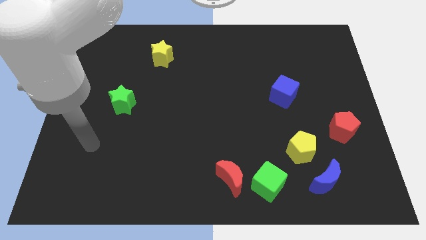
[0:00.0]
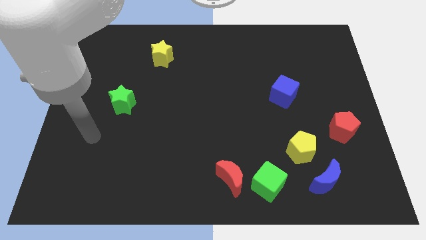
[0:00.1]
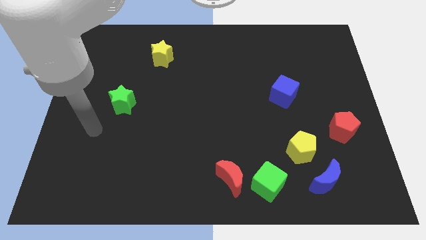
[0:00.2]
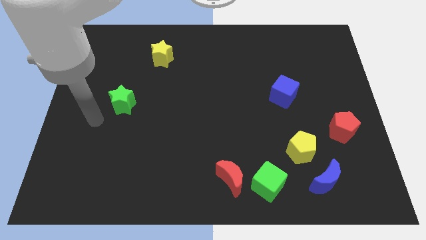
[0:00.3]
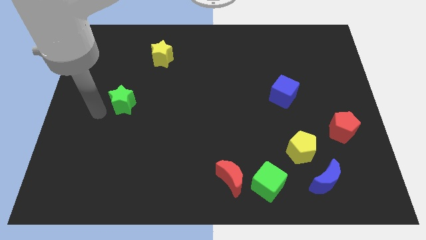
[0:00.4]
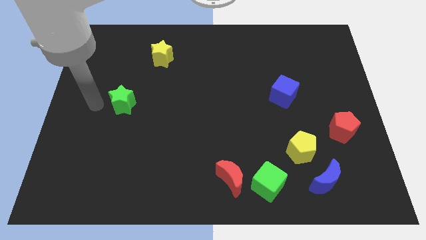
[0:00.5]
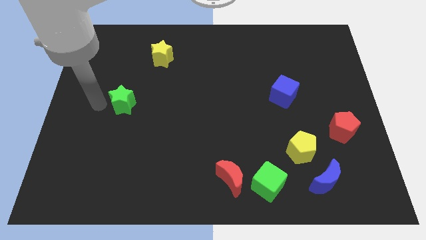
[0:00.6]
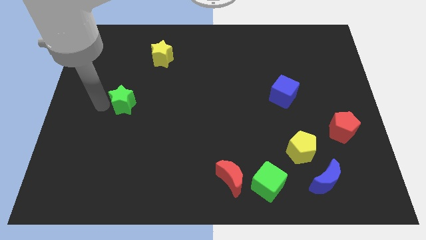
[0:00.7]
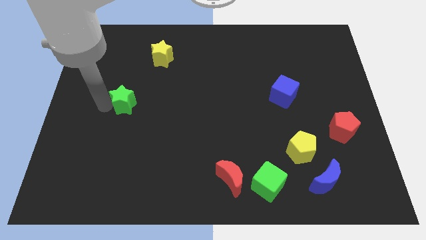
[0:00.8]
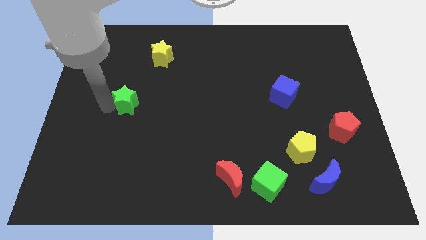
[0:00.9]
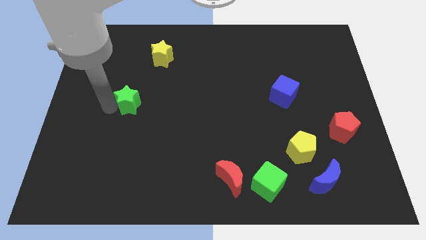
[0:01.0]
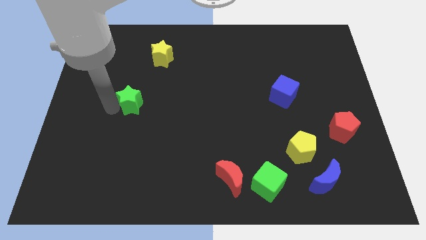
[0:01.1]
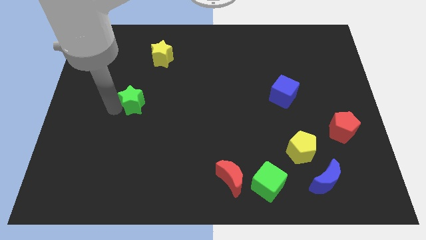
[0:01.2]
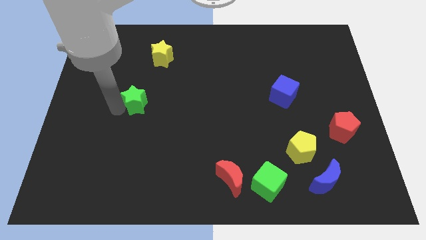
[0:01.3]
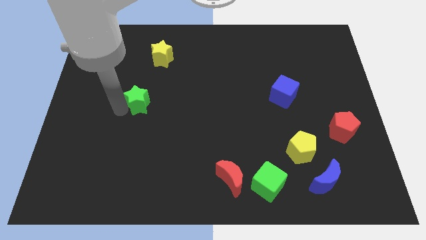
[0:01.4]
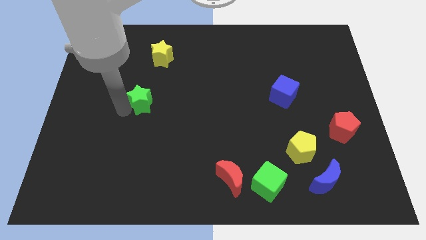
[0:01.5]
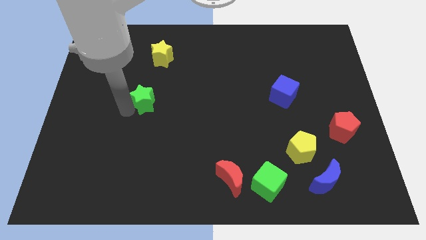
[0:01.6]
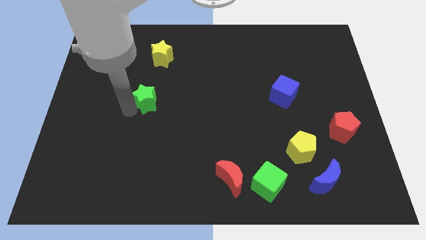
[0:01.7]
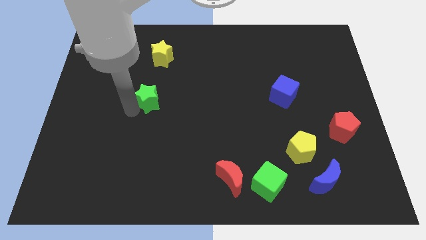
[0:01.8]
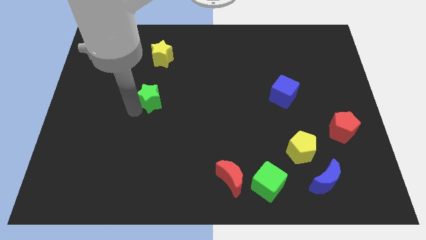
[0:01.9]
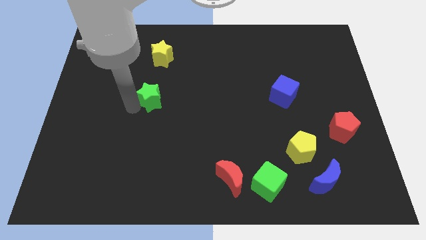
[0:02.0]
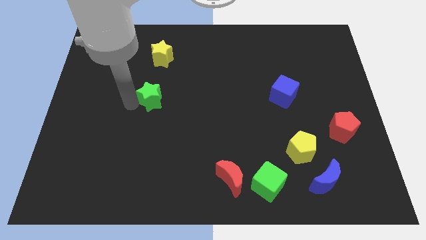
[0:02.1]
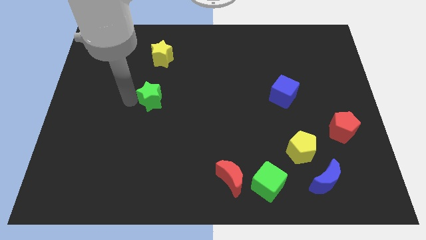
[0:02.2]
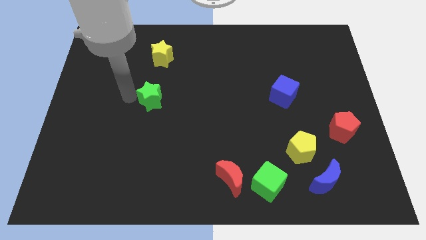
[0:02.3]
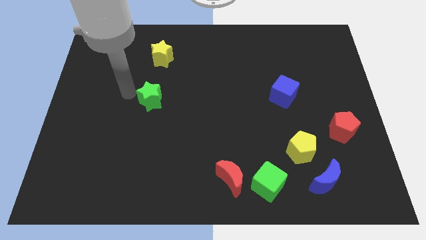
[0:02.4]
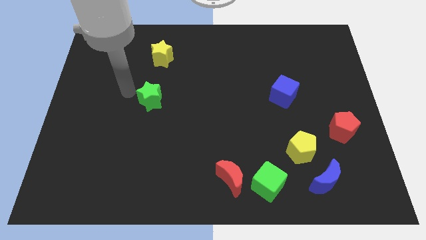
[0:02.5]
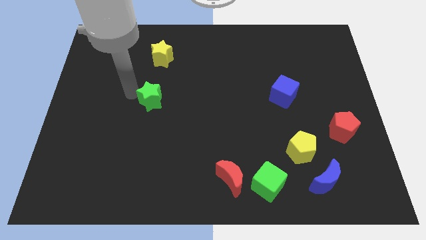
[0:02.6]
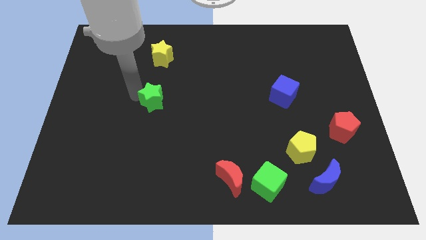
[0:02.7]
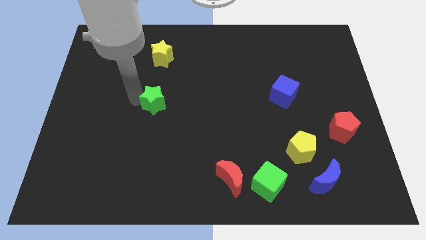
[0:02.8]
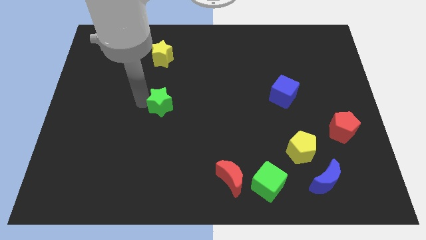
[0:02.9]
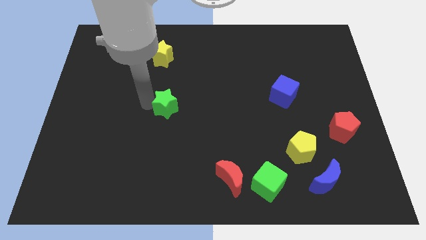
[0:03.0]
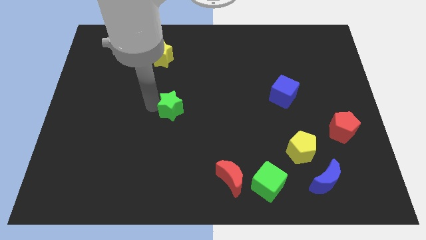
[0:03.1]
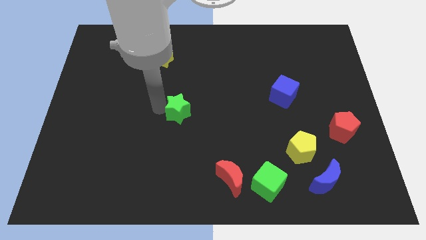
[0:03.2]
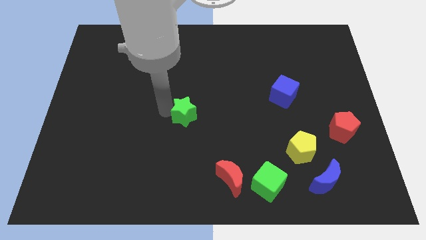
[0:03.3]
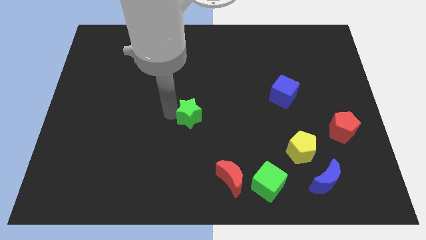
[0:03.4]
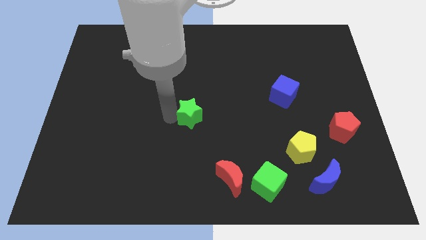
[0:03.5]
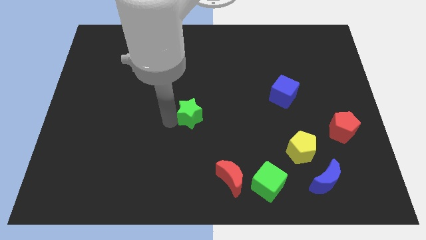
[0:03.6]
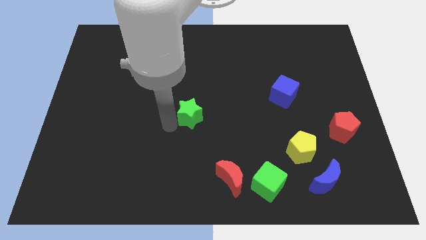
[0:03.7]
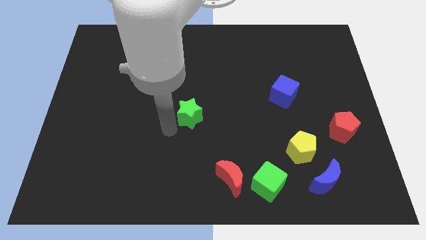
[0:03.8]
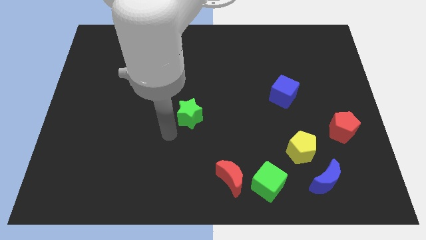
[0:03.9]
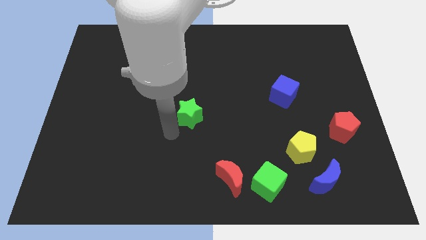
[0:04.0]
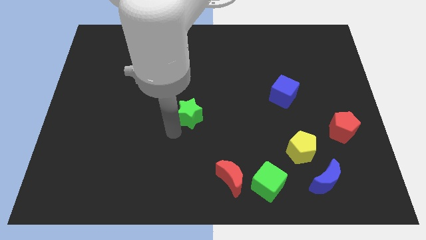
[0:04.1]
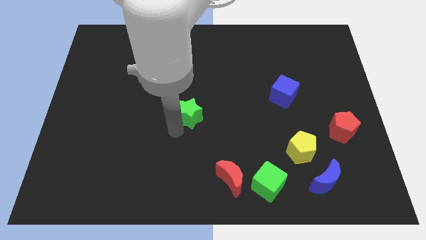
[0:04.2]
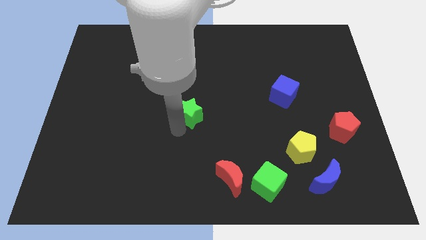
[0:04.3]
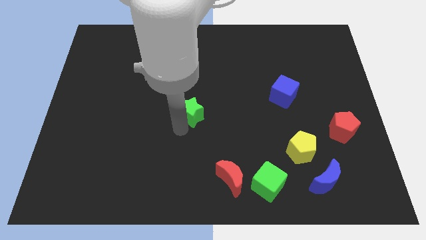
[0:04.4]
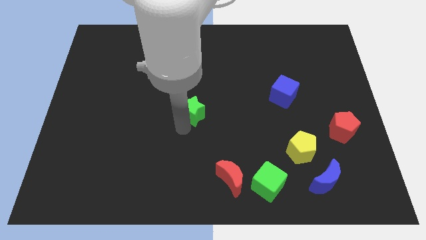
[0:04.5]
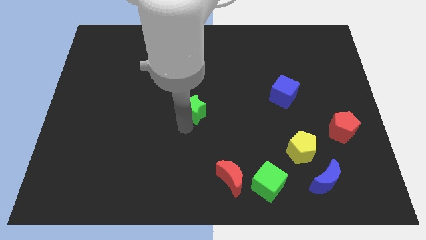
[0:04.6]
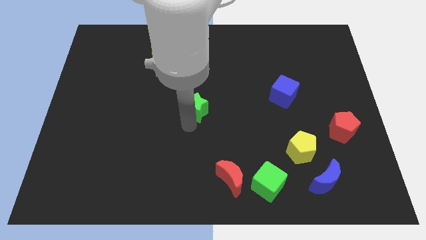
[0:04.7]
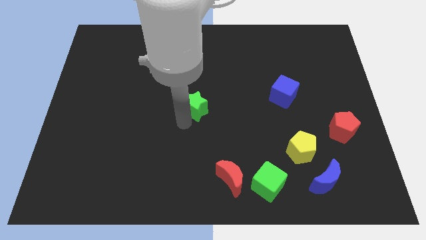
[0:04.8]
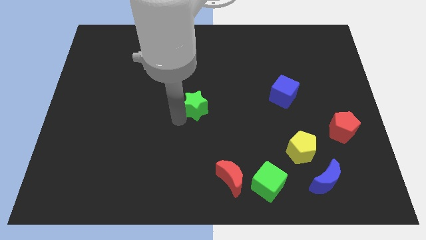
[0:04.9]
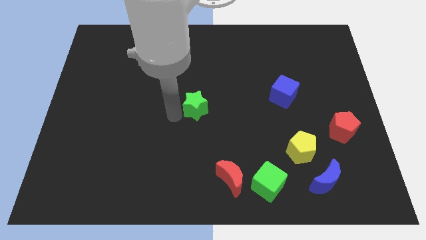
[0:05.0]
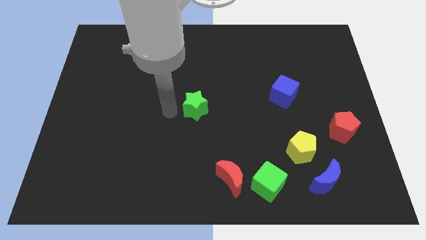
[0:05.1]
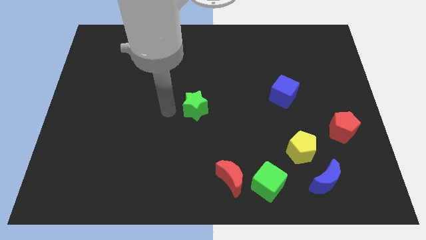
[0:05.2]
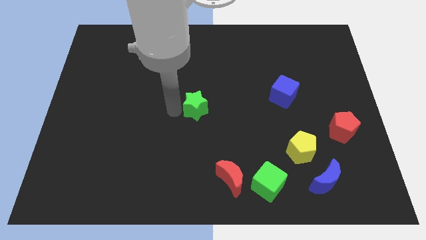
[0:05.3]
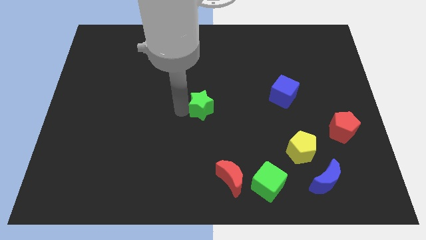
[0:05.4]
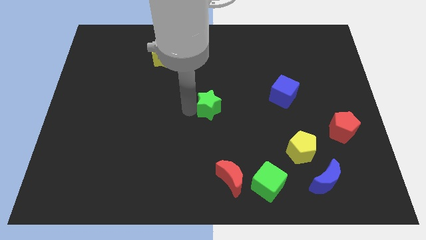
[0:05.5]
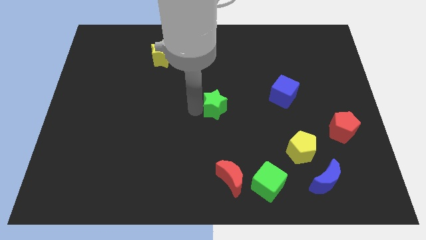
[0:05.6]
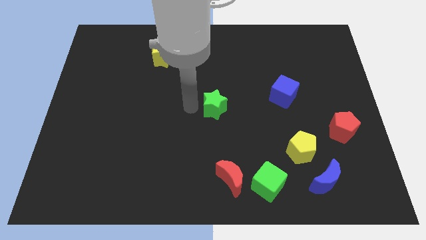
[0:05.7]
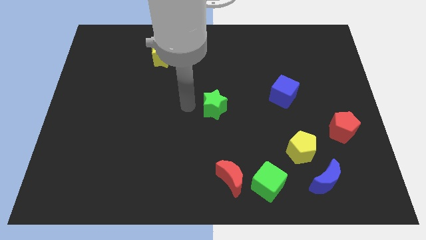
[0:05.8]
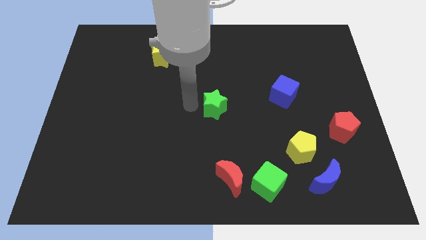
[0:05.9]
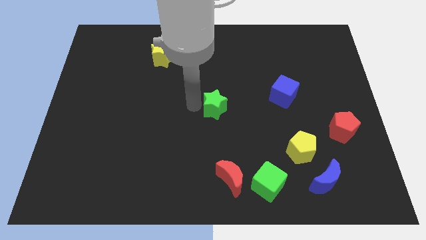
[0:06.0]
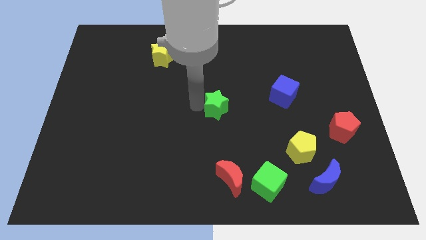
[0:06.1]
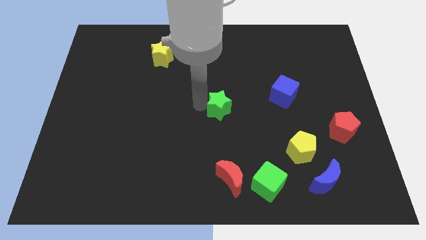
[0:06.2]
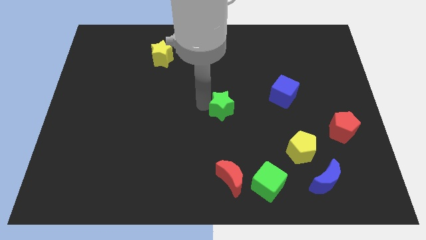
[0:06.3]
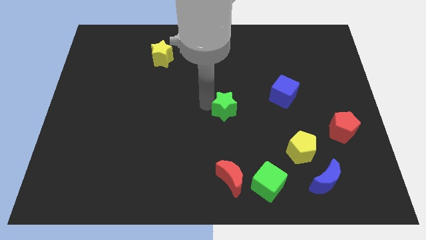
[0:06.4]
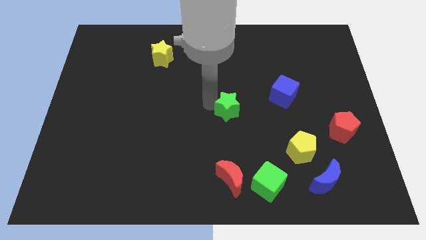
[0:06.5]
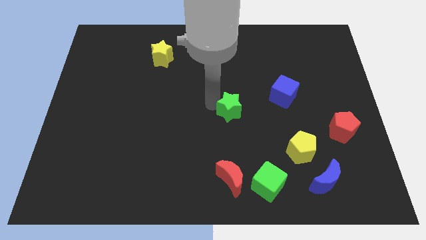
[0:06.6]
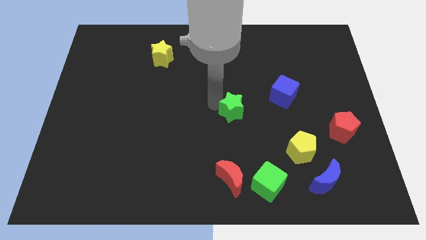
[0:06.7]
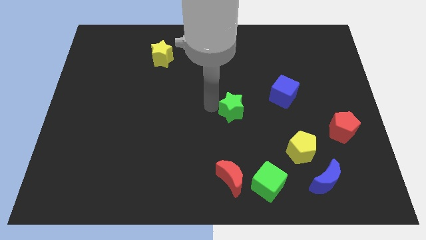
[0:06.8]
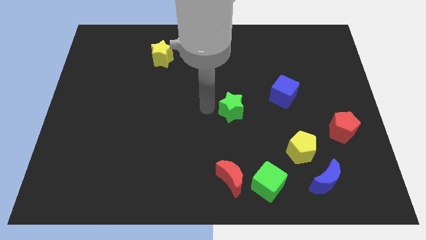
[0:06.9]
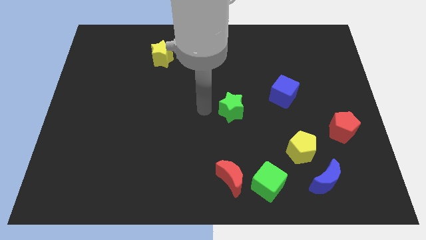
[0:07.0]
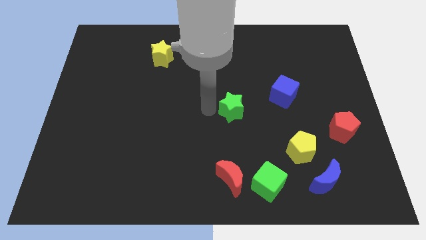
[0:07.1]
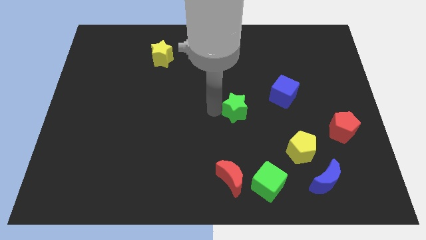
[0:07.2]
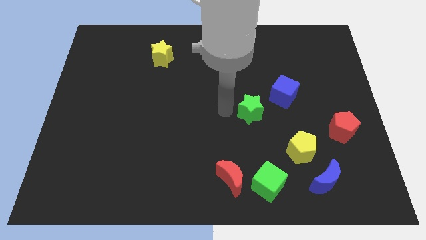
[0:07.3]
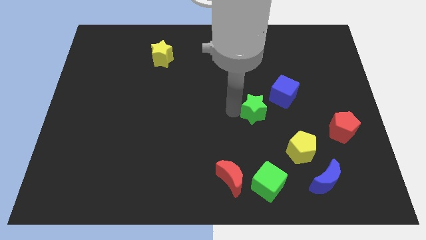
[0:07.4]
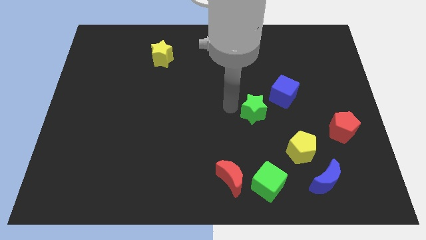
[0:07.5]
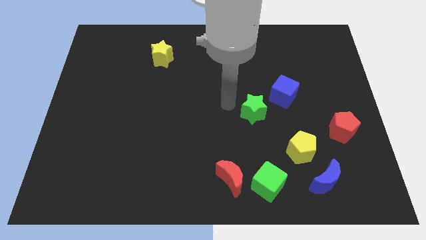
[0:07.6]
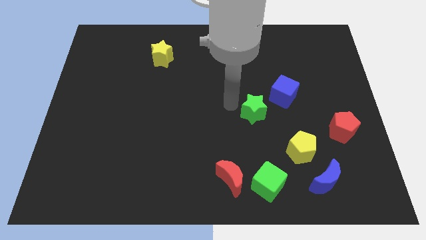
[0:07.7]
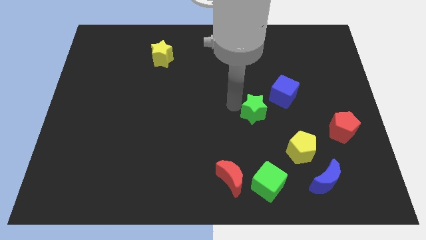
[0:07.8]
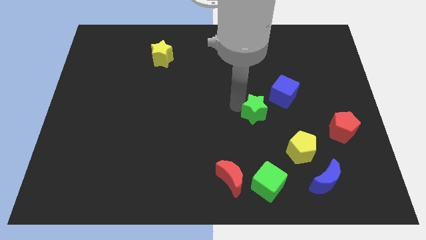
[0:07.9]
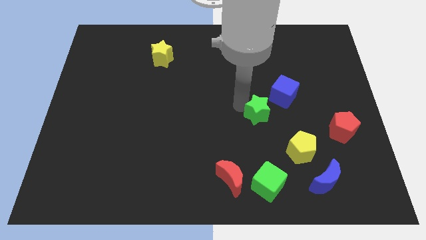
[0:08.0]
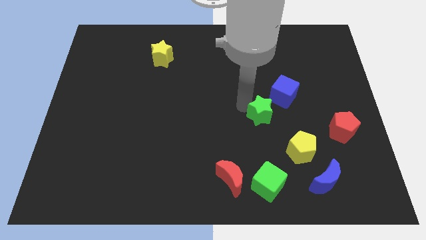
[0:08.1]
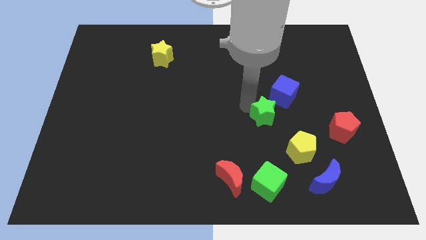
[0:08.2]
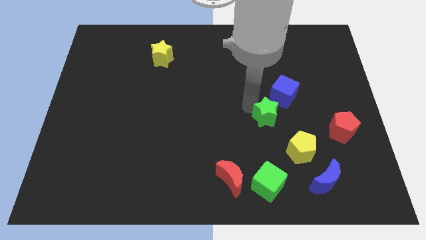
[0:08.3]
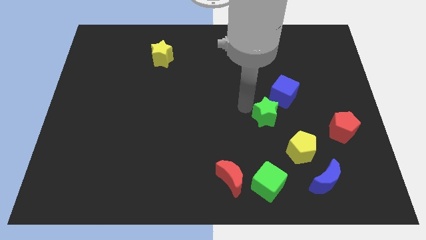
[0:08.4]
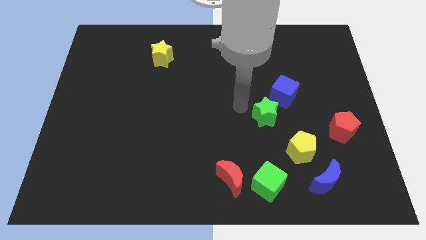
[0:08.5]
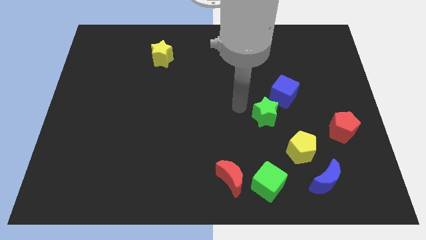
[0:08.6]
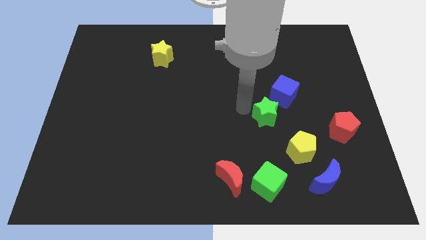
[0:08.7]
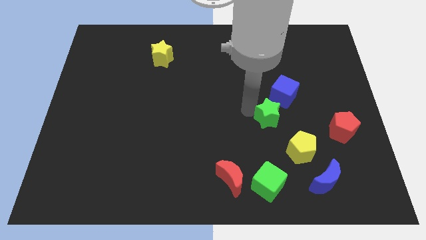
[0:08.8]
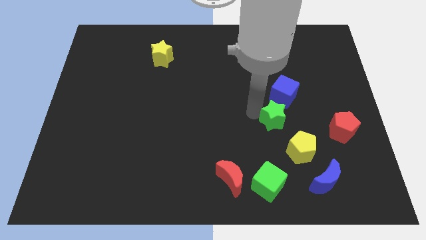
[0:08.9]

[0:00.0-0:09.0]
put the green star just left of the red pentagon
